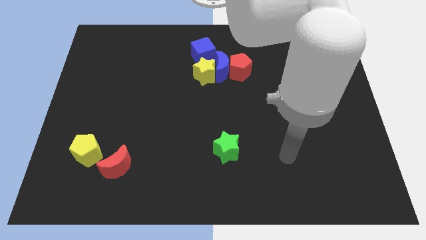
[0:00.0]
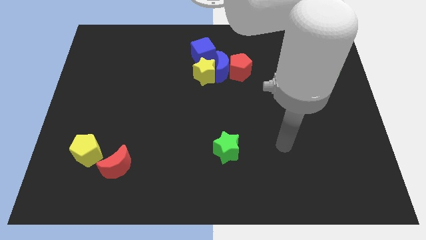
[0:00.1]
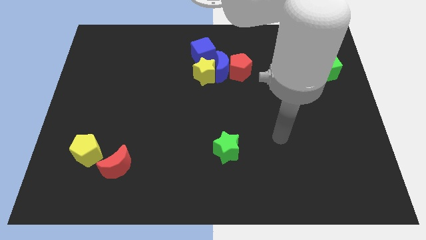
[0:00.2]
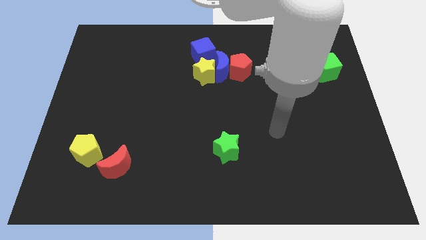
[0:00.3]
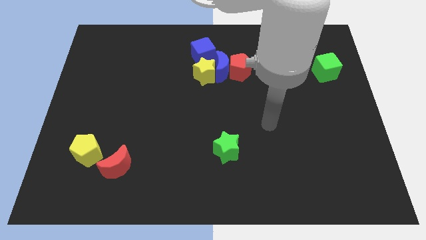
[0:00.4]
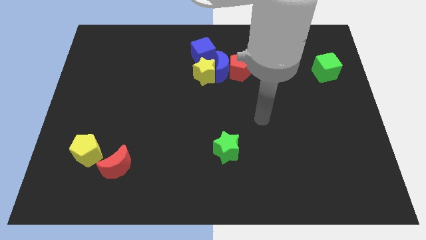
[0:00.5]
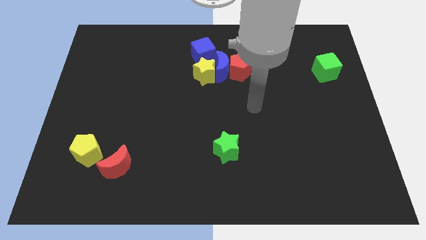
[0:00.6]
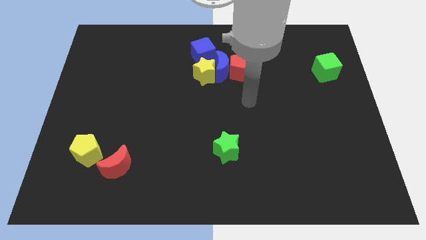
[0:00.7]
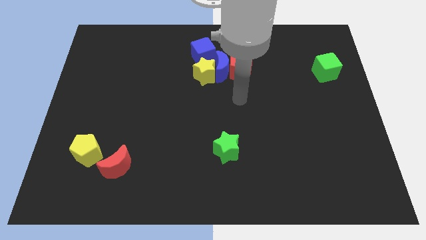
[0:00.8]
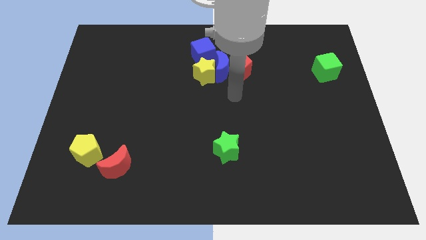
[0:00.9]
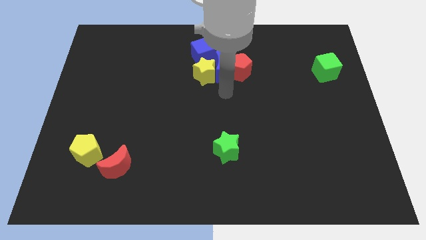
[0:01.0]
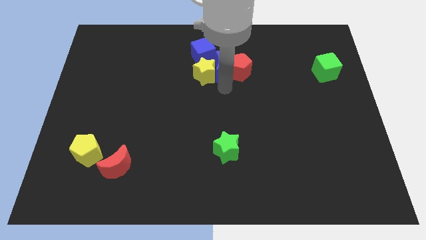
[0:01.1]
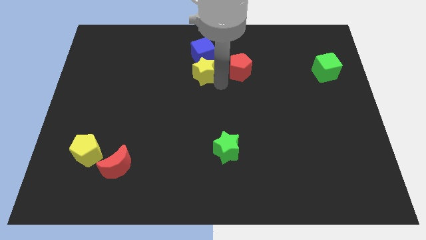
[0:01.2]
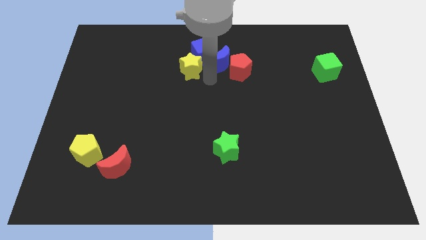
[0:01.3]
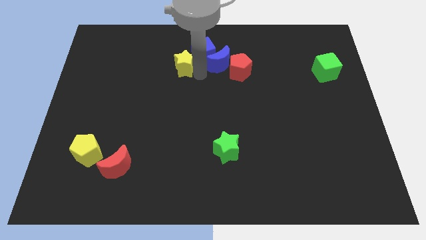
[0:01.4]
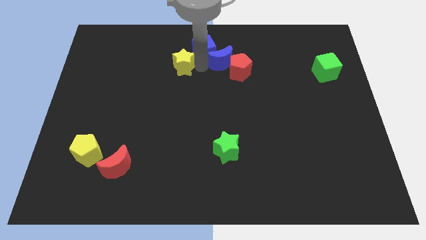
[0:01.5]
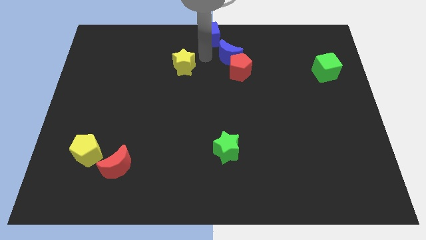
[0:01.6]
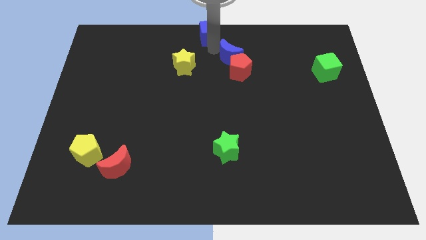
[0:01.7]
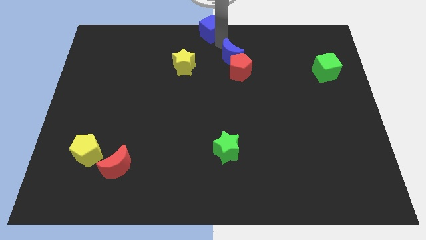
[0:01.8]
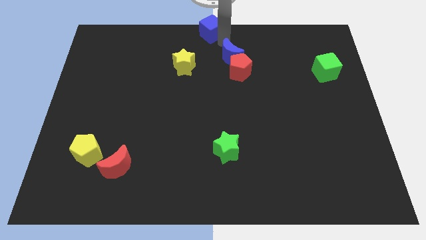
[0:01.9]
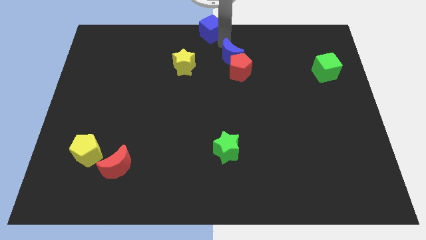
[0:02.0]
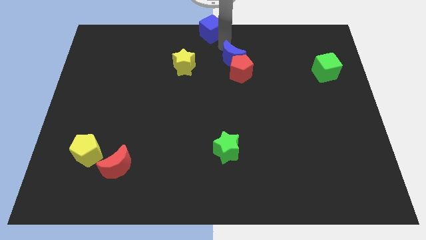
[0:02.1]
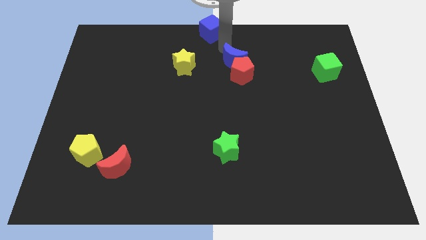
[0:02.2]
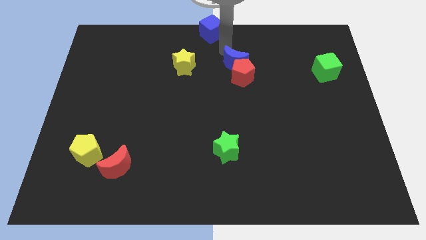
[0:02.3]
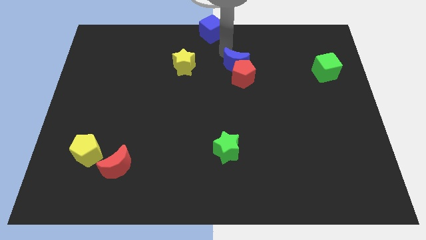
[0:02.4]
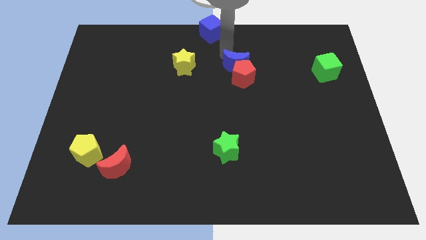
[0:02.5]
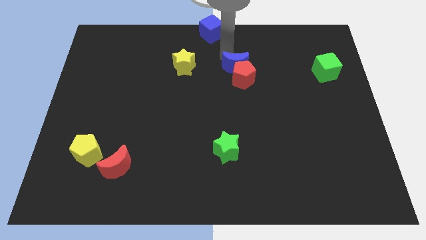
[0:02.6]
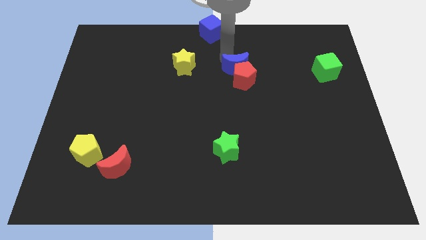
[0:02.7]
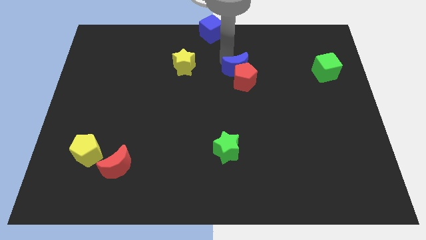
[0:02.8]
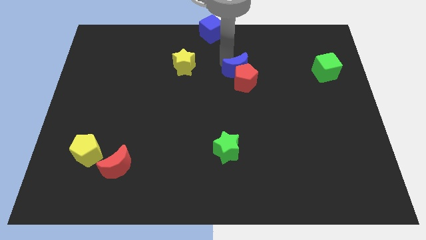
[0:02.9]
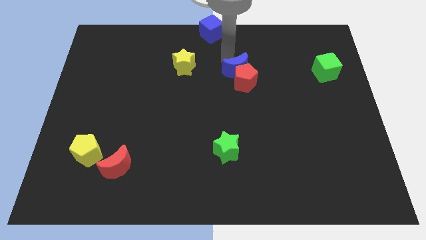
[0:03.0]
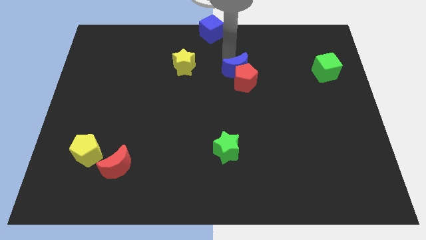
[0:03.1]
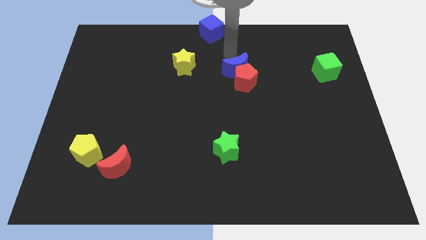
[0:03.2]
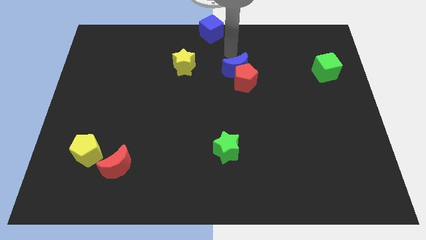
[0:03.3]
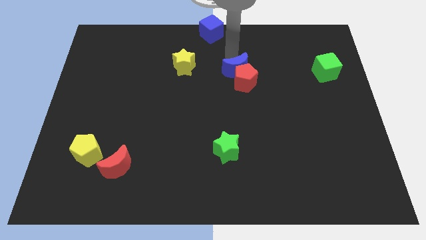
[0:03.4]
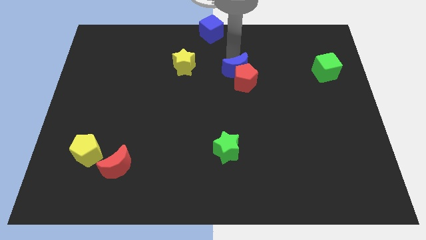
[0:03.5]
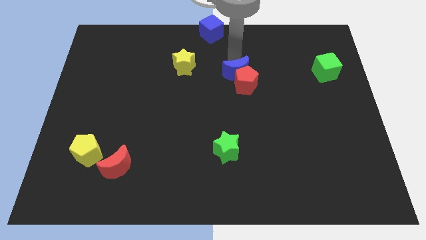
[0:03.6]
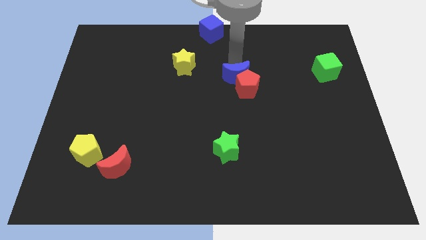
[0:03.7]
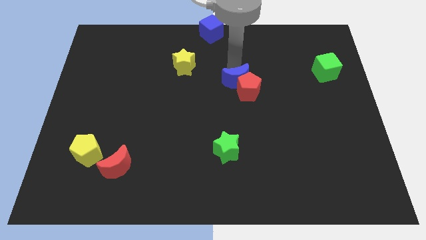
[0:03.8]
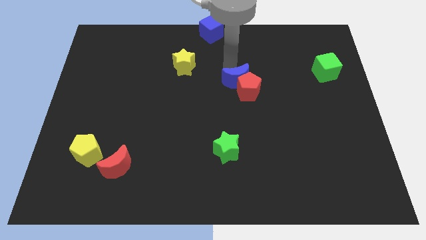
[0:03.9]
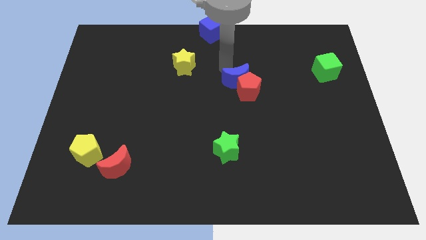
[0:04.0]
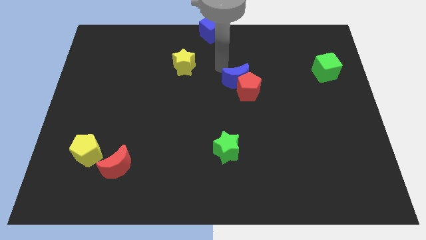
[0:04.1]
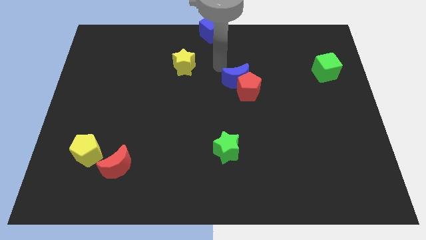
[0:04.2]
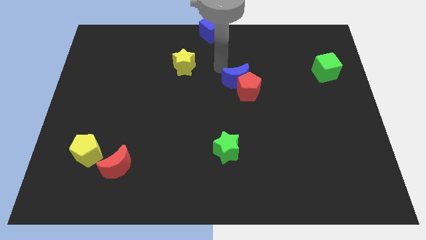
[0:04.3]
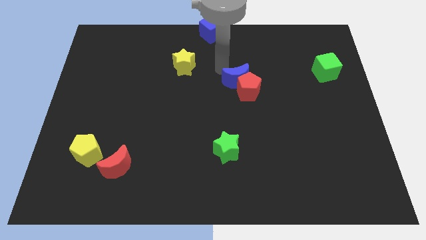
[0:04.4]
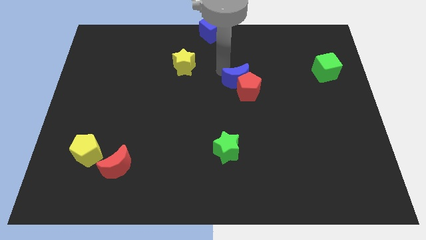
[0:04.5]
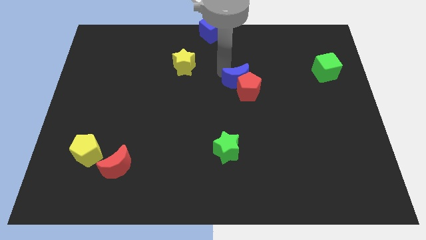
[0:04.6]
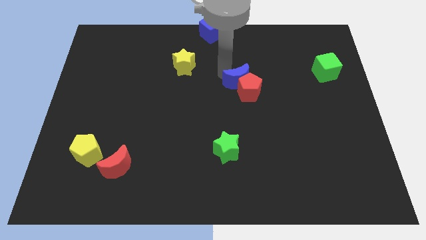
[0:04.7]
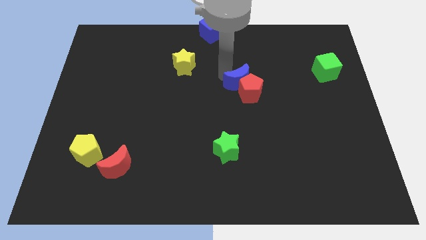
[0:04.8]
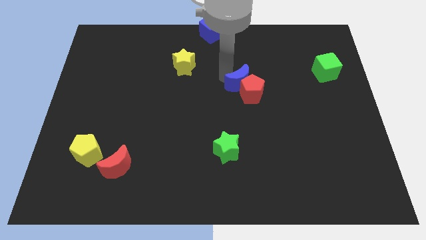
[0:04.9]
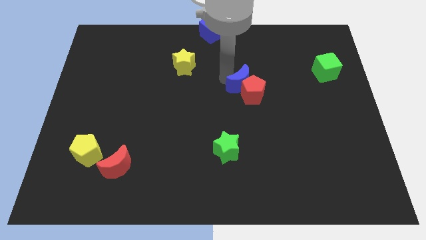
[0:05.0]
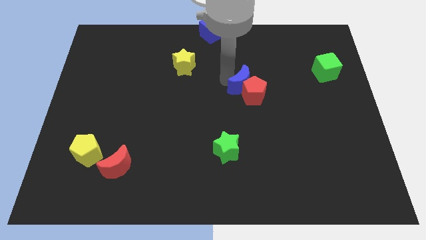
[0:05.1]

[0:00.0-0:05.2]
separate the blue moon from the group

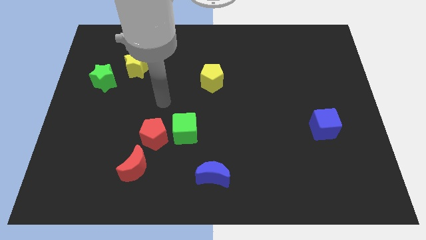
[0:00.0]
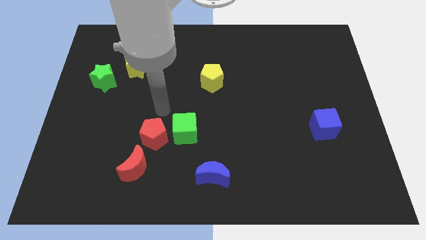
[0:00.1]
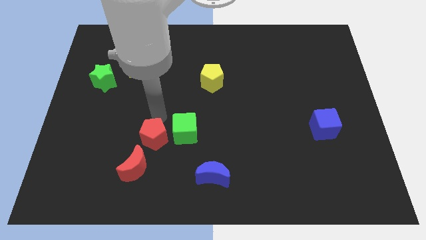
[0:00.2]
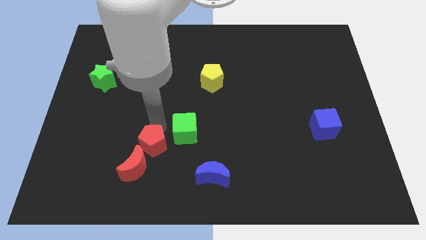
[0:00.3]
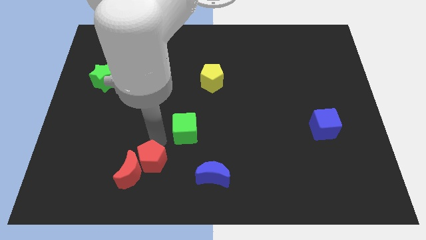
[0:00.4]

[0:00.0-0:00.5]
pull the green cube apart from the red pentagon

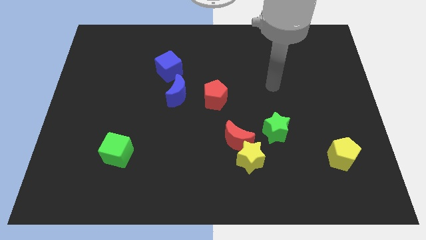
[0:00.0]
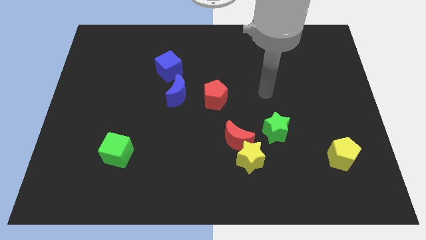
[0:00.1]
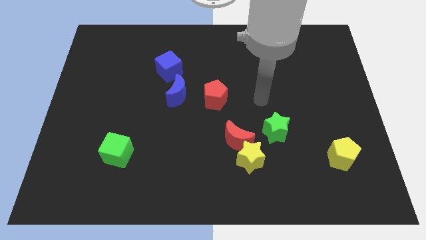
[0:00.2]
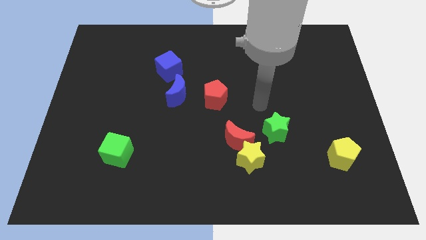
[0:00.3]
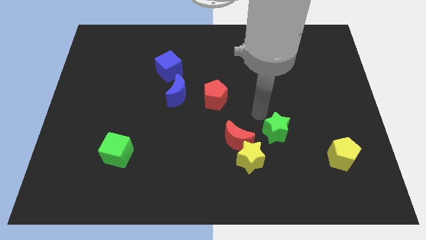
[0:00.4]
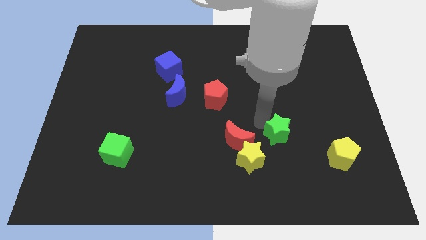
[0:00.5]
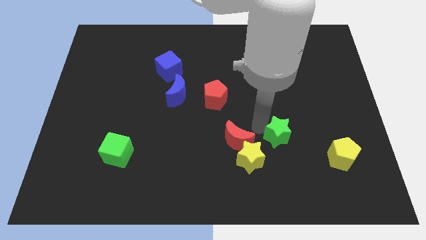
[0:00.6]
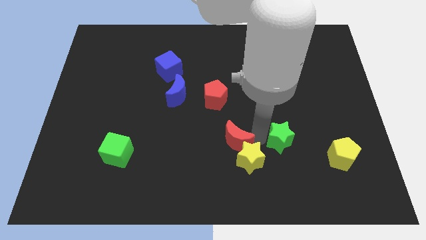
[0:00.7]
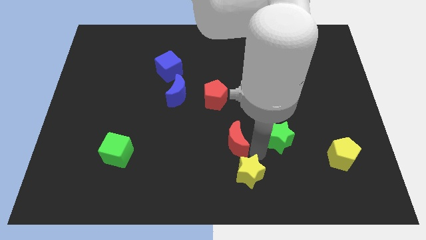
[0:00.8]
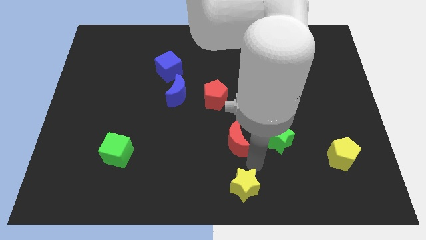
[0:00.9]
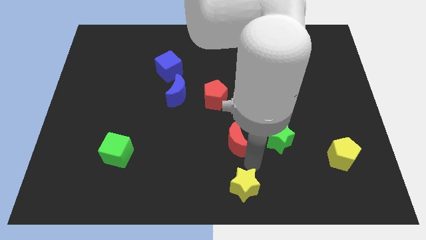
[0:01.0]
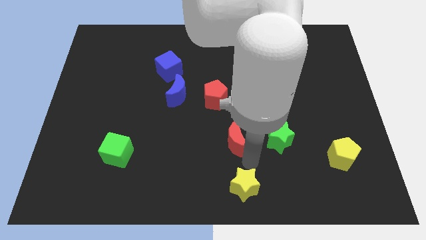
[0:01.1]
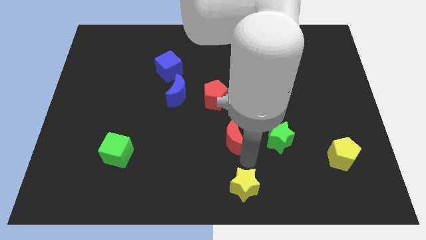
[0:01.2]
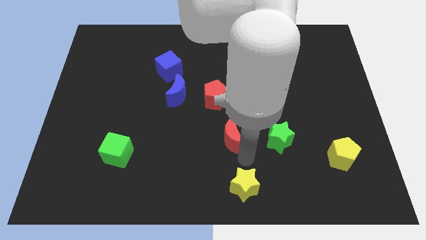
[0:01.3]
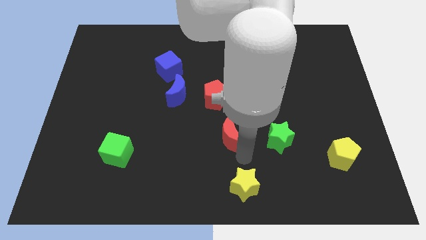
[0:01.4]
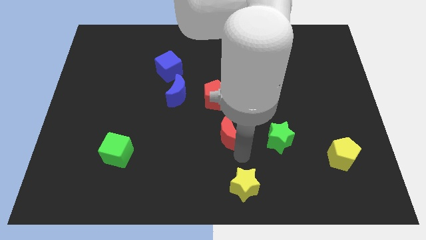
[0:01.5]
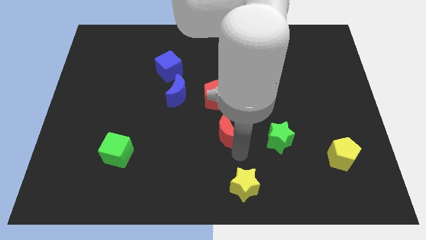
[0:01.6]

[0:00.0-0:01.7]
separate the red moon from the yellow star and green star

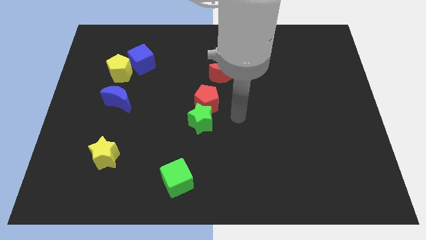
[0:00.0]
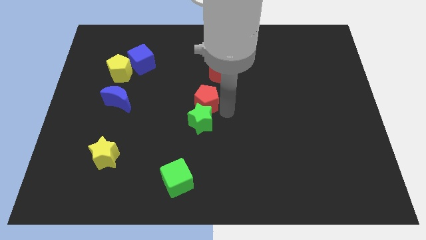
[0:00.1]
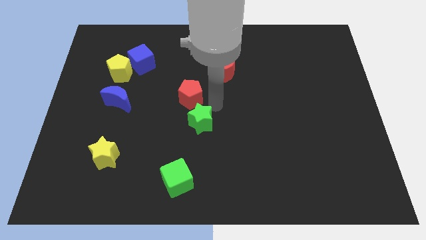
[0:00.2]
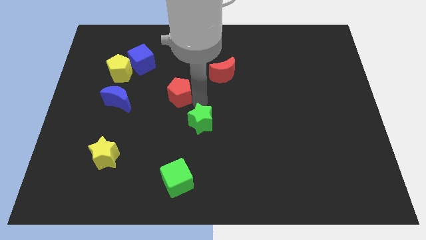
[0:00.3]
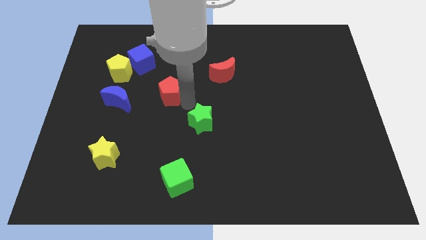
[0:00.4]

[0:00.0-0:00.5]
move the green star away from the red pentagon

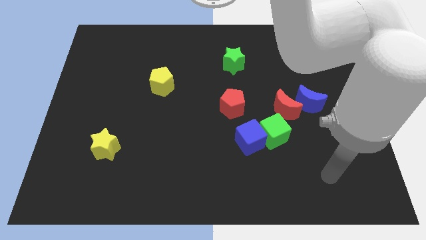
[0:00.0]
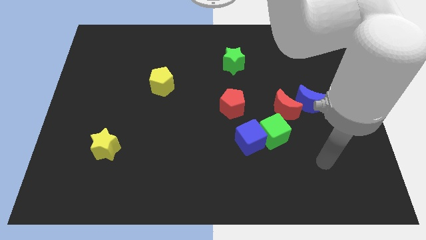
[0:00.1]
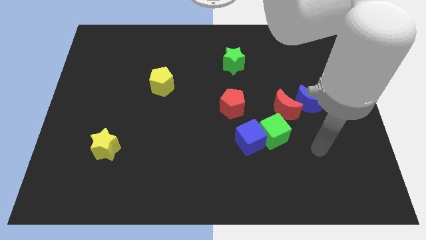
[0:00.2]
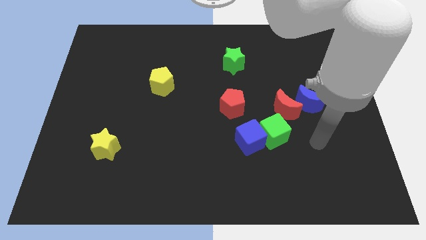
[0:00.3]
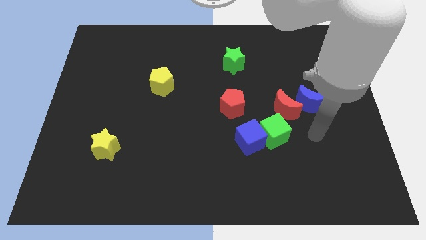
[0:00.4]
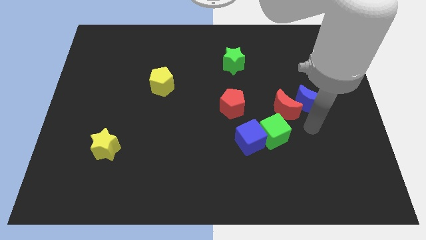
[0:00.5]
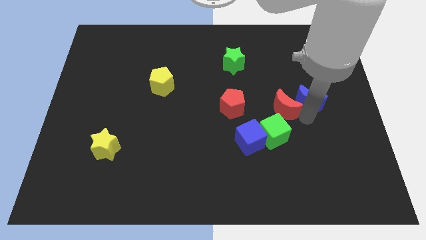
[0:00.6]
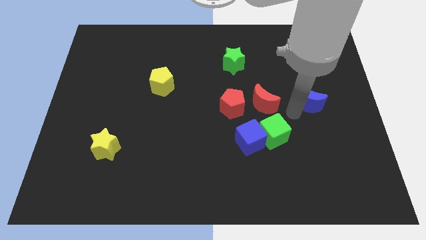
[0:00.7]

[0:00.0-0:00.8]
move the blue moon away from the red moon

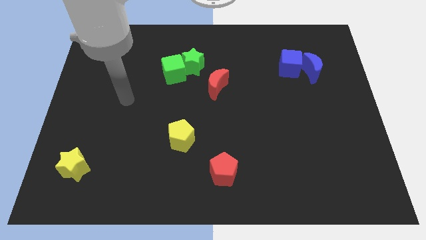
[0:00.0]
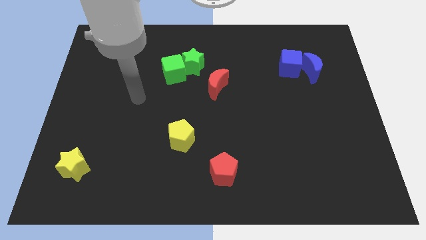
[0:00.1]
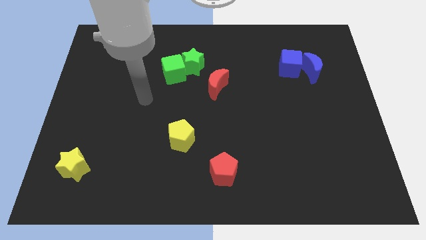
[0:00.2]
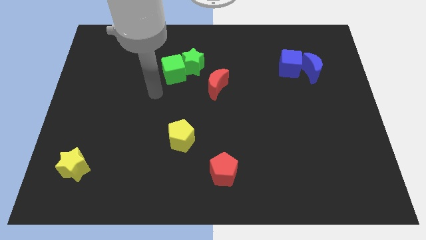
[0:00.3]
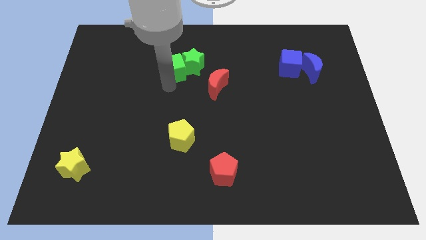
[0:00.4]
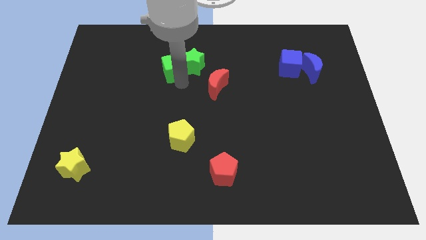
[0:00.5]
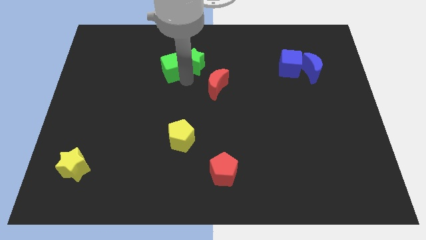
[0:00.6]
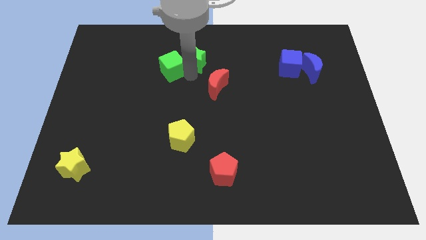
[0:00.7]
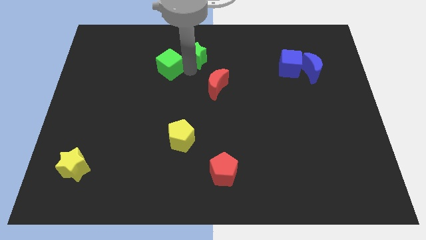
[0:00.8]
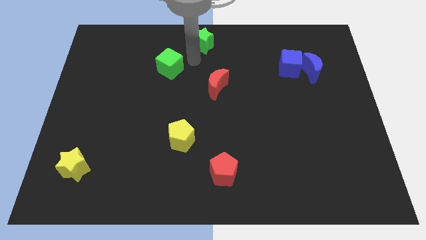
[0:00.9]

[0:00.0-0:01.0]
move the green cube away from the green star
